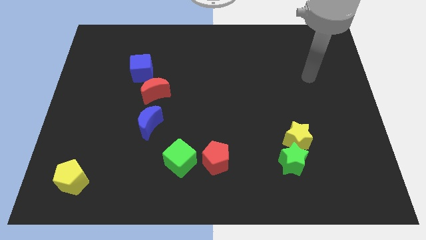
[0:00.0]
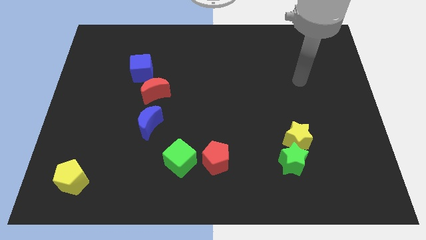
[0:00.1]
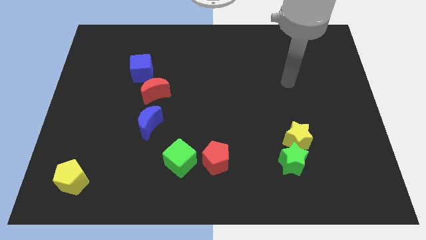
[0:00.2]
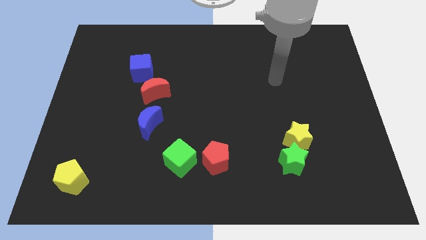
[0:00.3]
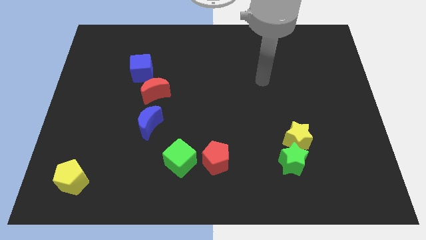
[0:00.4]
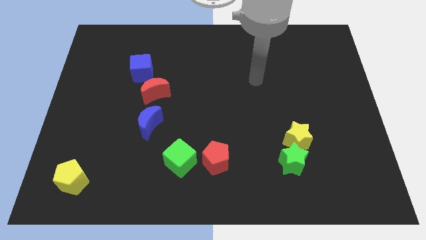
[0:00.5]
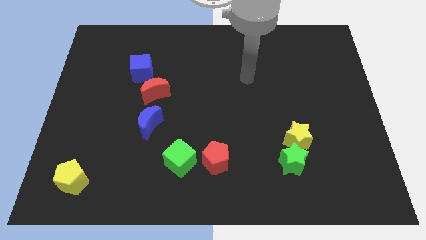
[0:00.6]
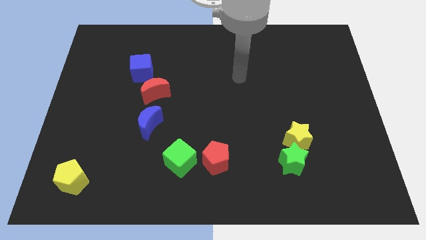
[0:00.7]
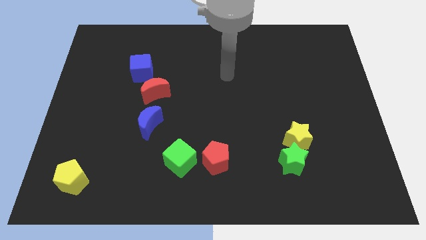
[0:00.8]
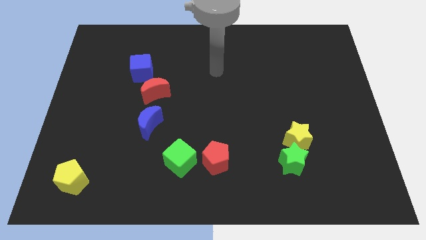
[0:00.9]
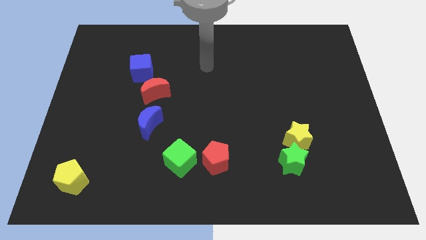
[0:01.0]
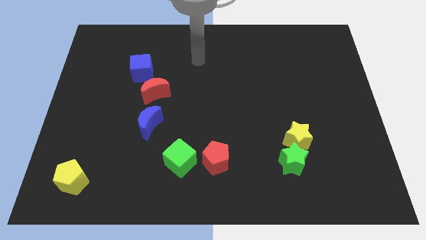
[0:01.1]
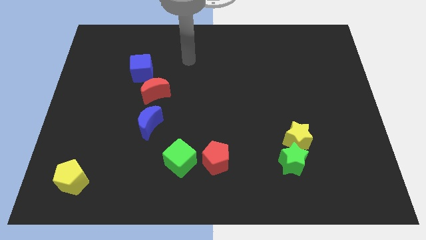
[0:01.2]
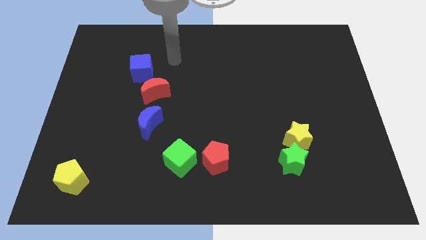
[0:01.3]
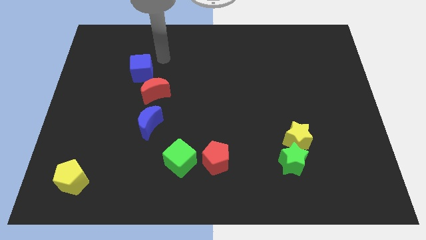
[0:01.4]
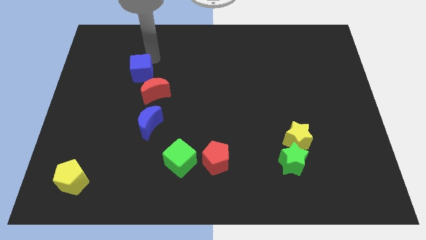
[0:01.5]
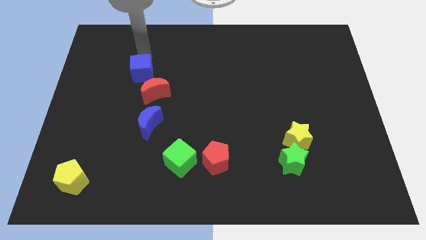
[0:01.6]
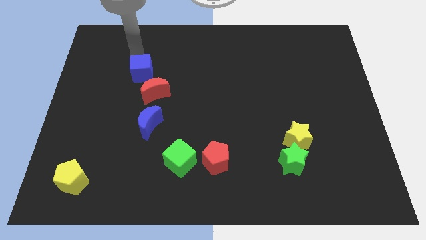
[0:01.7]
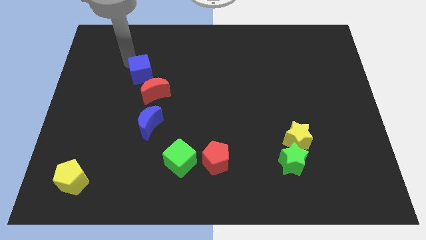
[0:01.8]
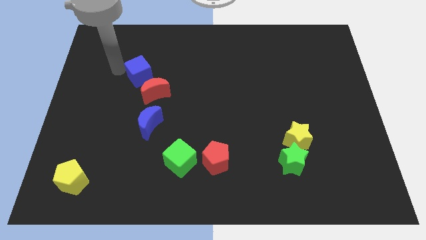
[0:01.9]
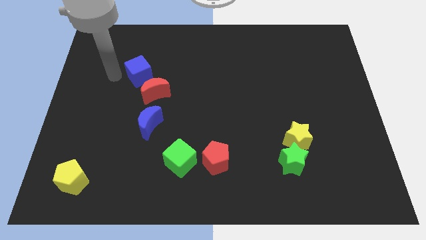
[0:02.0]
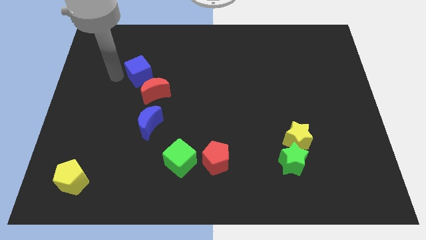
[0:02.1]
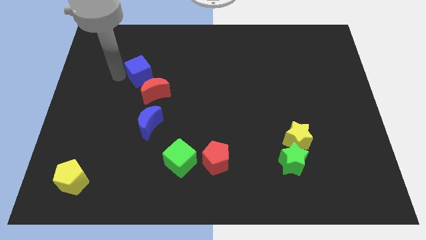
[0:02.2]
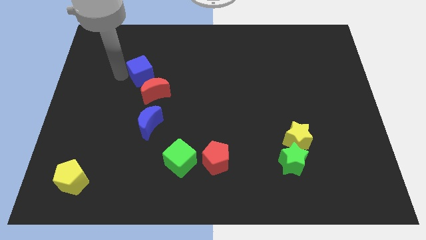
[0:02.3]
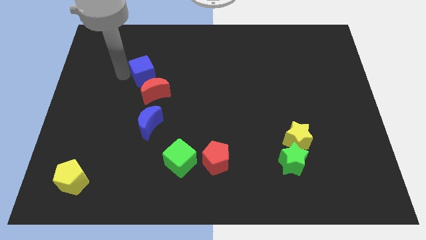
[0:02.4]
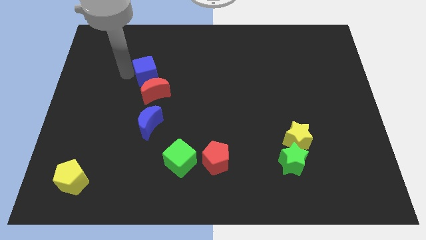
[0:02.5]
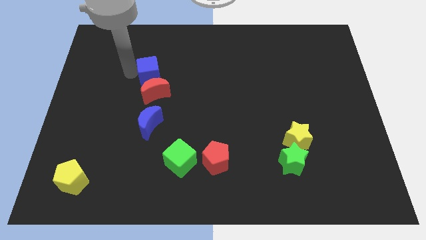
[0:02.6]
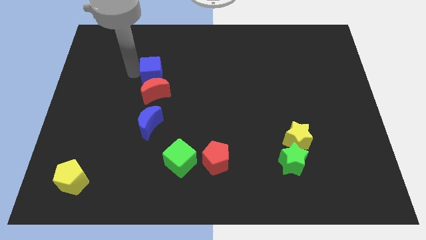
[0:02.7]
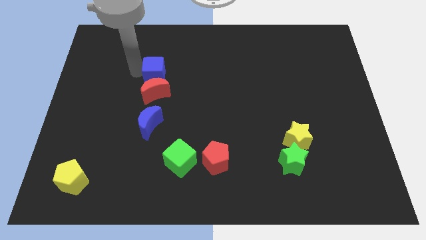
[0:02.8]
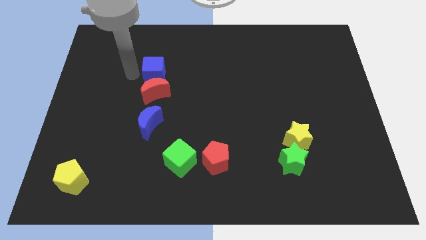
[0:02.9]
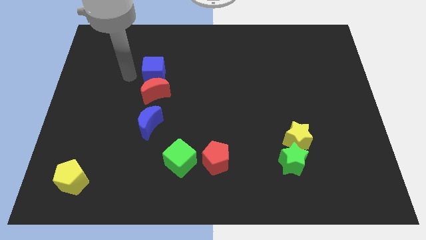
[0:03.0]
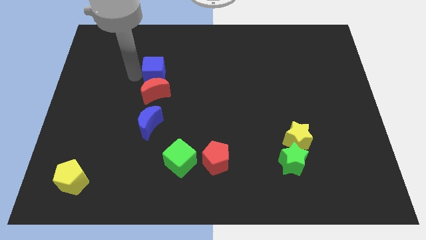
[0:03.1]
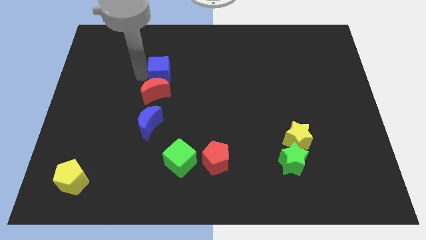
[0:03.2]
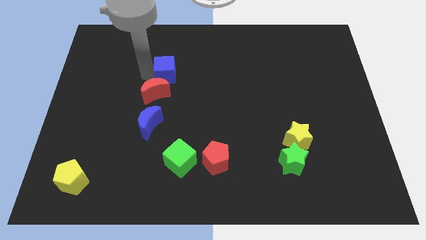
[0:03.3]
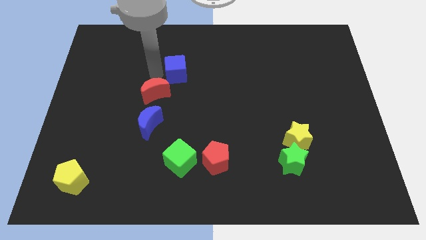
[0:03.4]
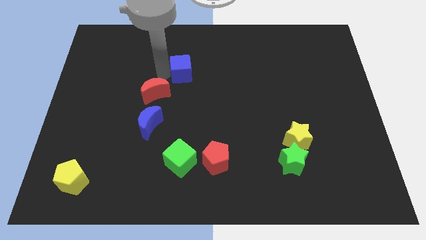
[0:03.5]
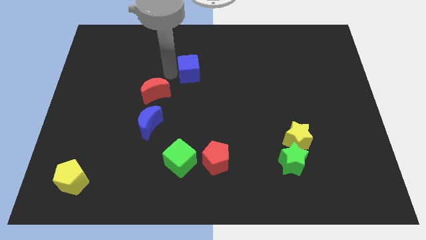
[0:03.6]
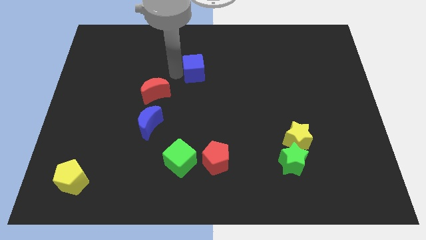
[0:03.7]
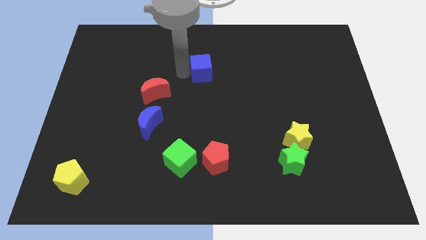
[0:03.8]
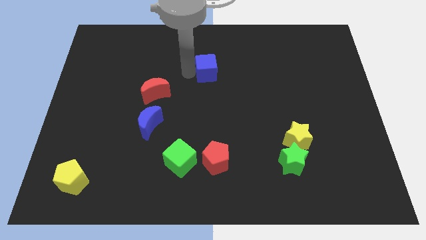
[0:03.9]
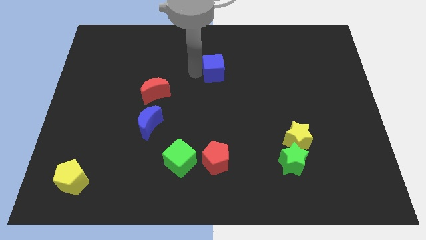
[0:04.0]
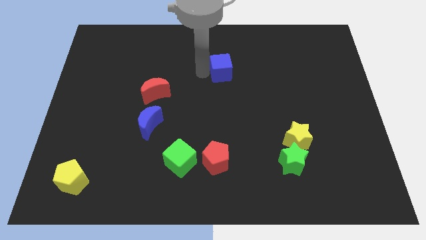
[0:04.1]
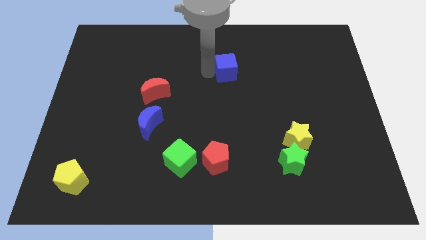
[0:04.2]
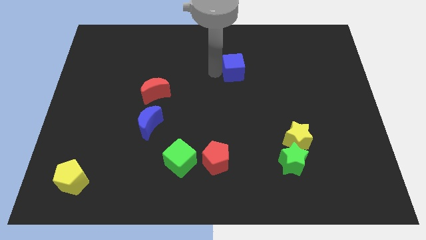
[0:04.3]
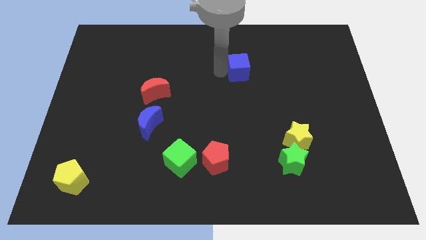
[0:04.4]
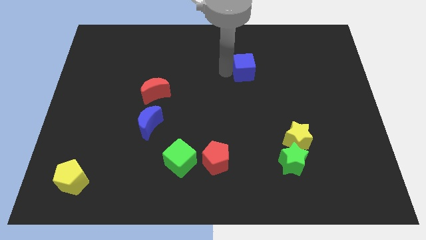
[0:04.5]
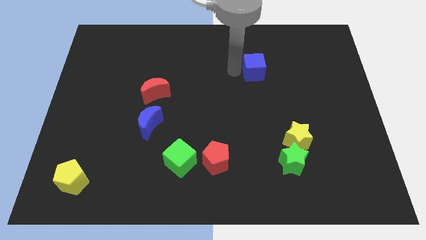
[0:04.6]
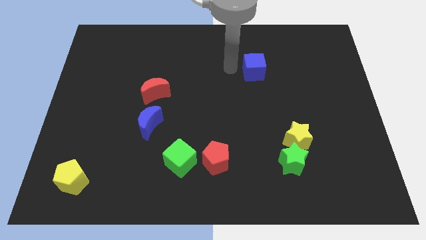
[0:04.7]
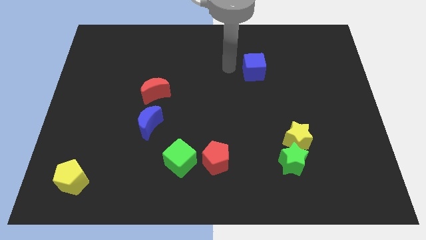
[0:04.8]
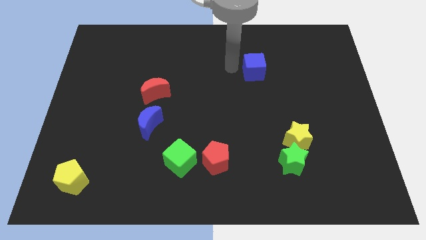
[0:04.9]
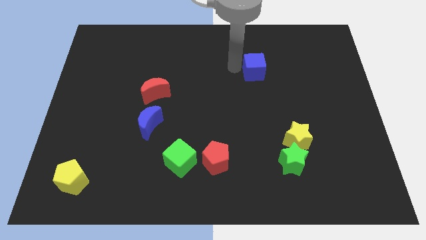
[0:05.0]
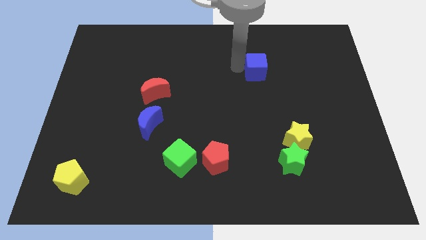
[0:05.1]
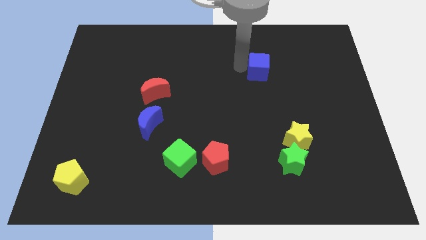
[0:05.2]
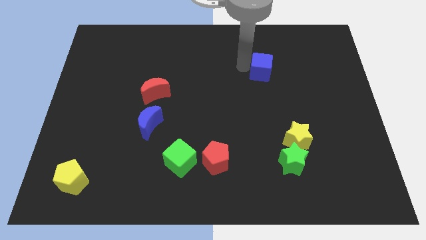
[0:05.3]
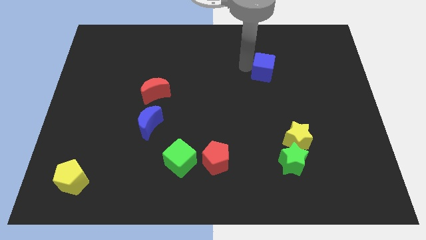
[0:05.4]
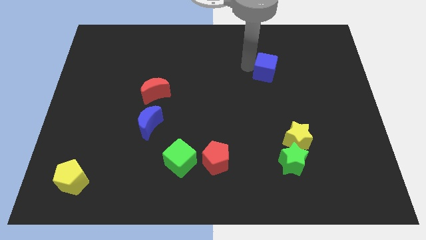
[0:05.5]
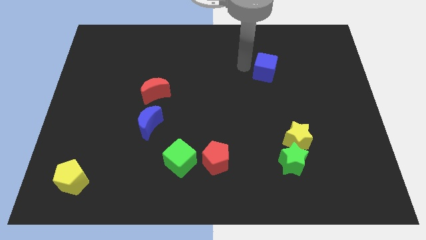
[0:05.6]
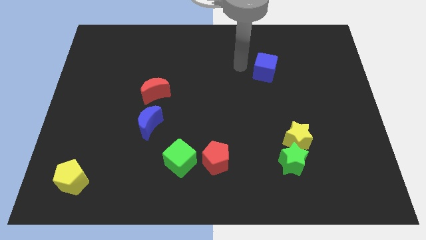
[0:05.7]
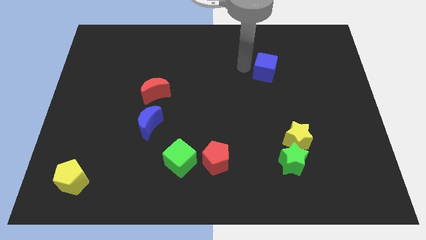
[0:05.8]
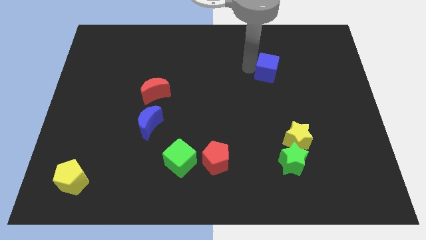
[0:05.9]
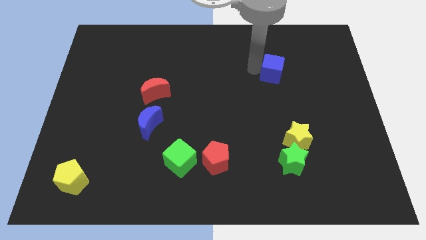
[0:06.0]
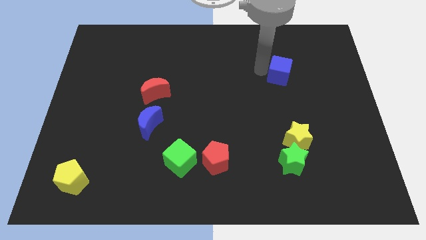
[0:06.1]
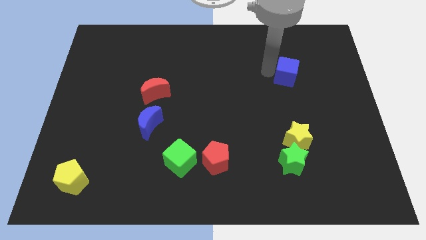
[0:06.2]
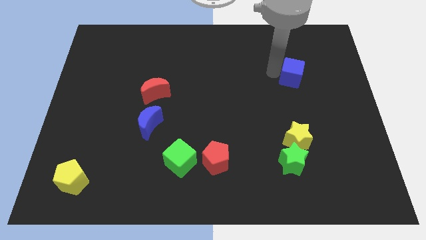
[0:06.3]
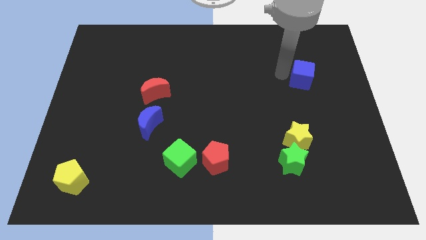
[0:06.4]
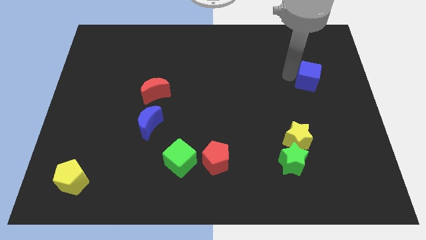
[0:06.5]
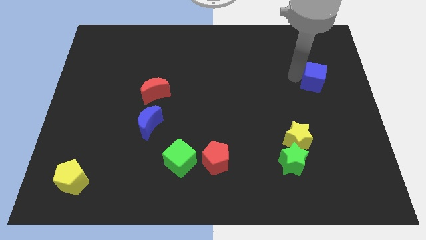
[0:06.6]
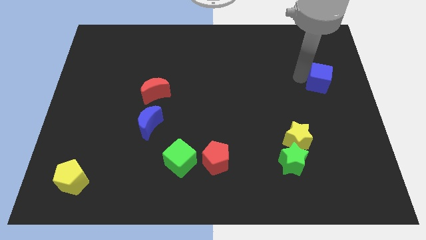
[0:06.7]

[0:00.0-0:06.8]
put the blue cube to the right side of the board
